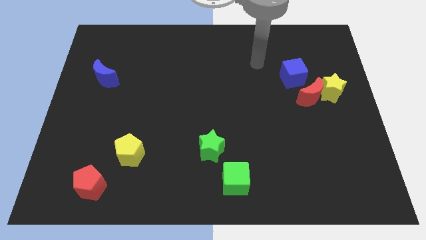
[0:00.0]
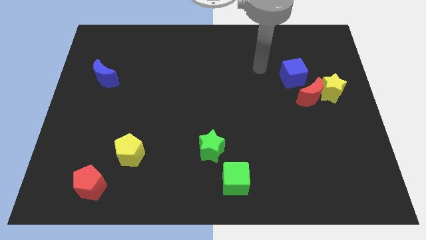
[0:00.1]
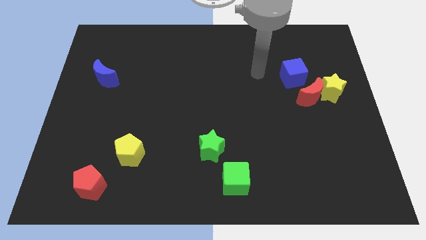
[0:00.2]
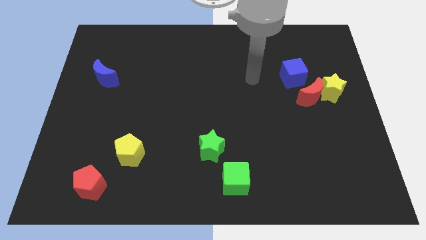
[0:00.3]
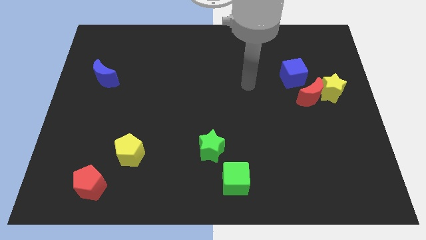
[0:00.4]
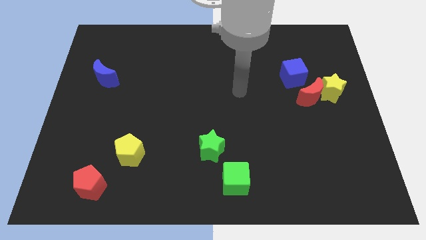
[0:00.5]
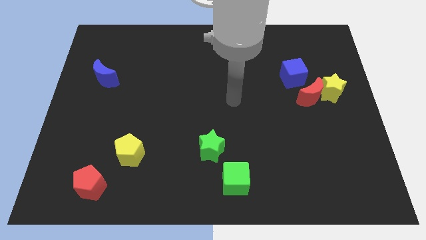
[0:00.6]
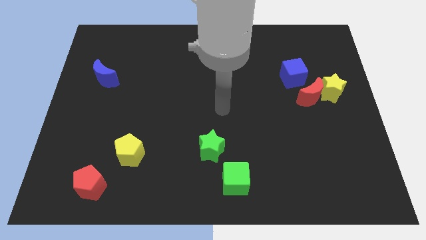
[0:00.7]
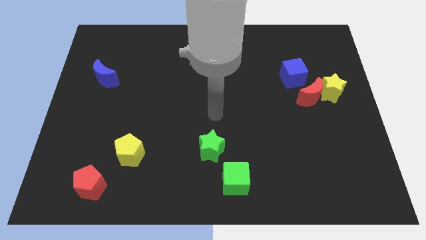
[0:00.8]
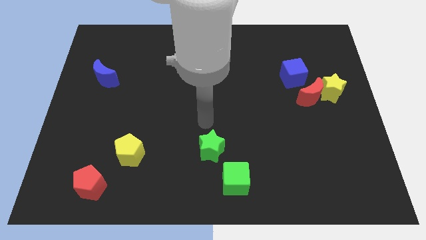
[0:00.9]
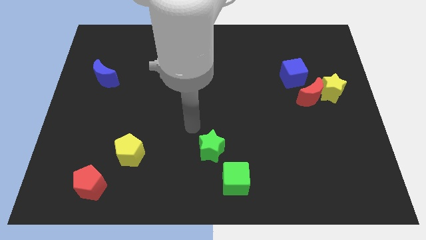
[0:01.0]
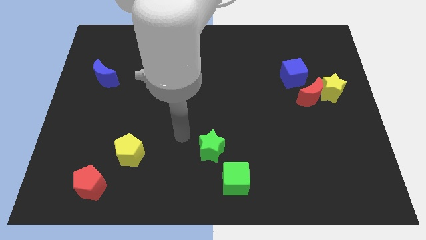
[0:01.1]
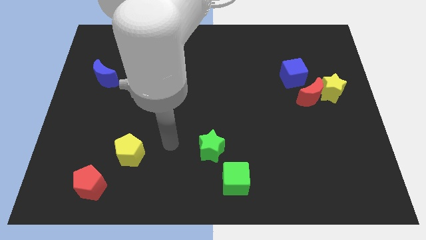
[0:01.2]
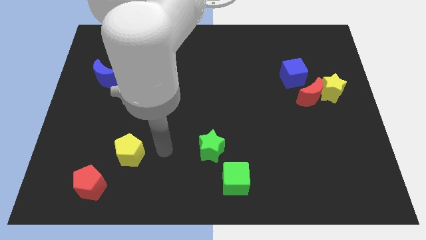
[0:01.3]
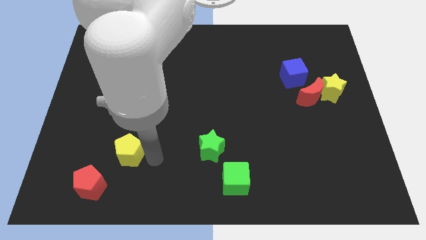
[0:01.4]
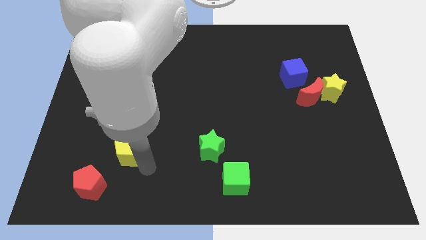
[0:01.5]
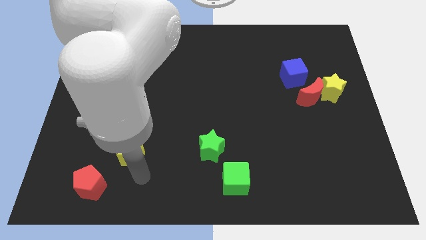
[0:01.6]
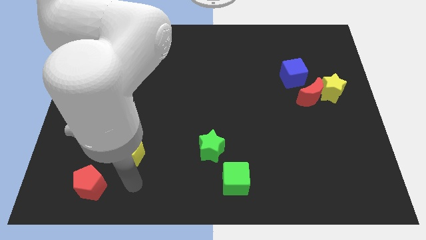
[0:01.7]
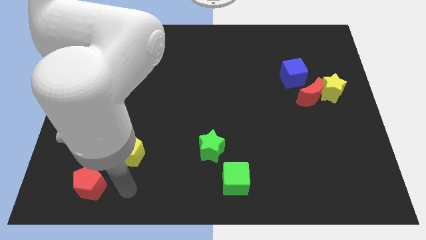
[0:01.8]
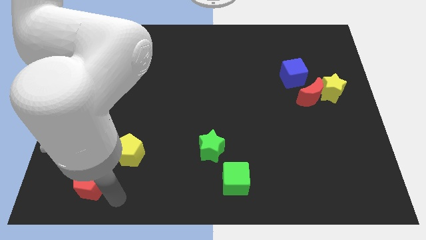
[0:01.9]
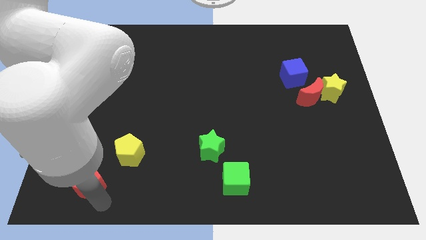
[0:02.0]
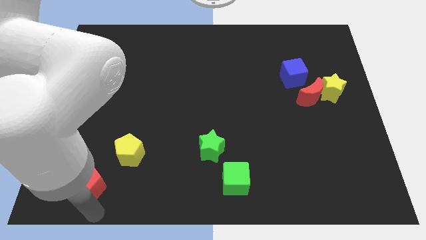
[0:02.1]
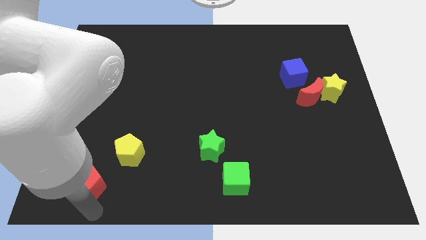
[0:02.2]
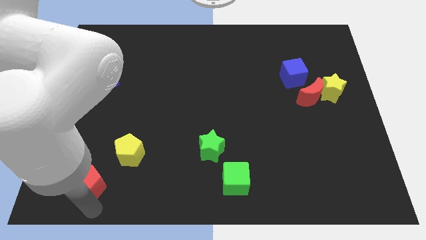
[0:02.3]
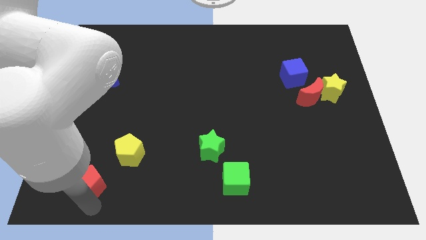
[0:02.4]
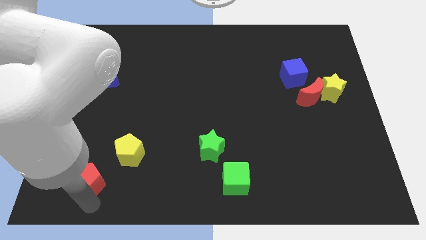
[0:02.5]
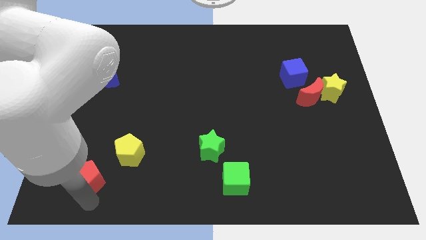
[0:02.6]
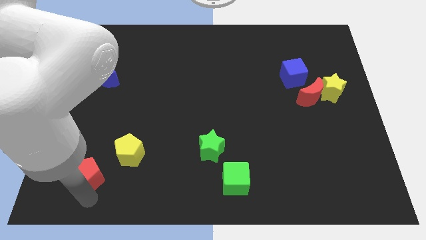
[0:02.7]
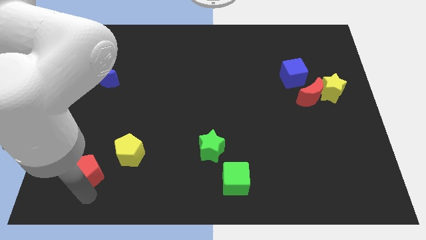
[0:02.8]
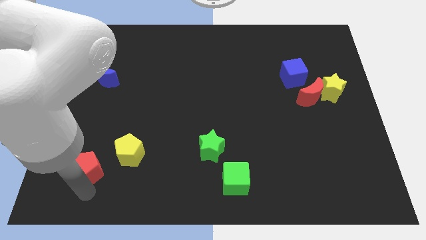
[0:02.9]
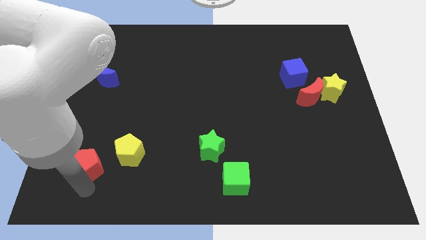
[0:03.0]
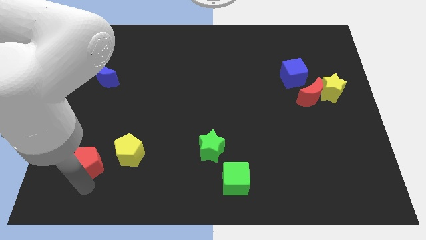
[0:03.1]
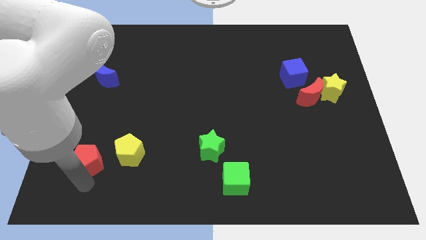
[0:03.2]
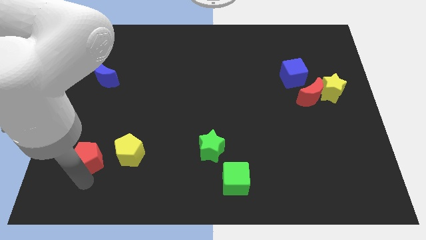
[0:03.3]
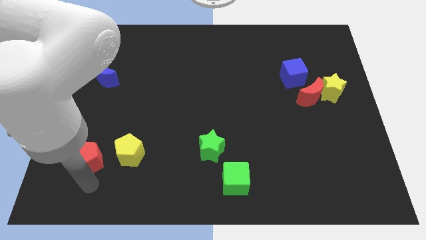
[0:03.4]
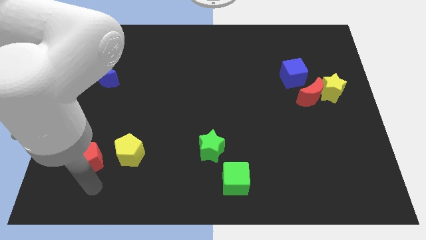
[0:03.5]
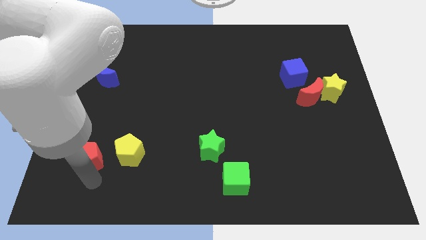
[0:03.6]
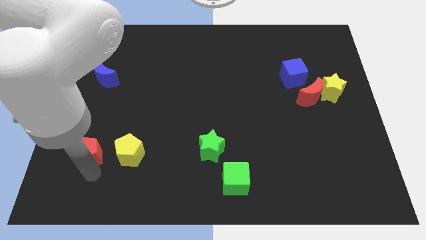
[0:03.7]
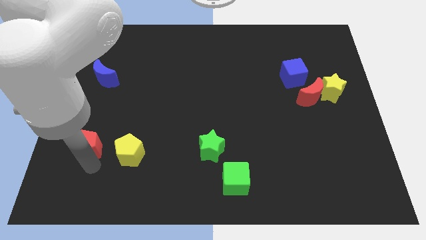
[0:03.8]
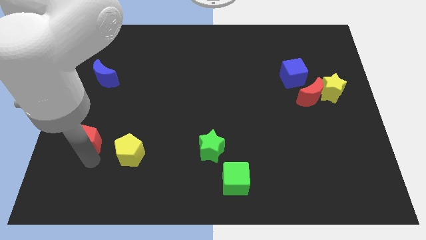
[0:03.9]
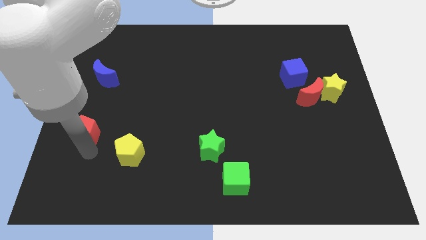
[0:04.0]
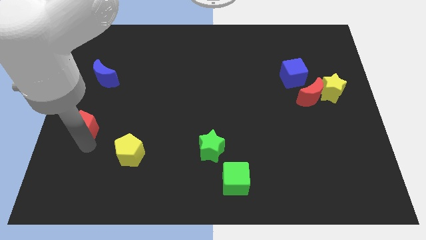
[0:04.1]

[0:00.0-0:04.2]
move the red pentagon to the bottom of the blue moon

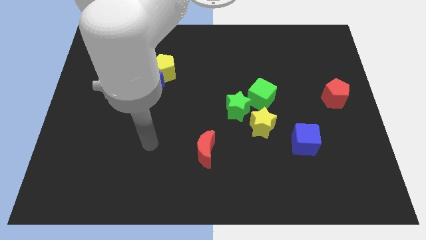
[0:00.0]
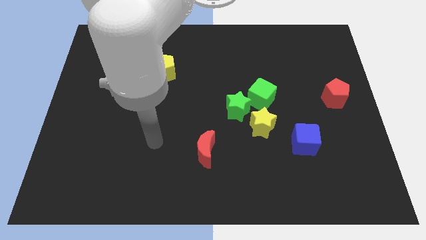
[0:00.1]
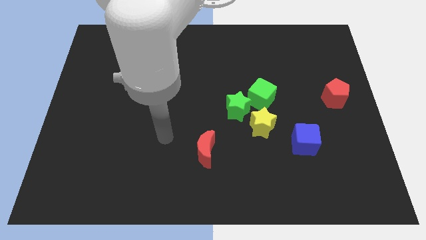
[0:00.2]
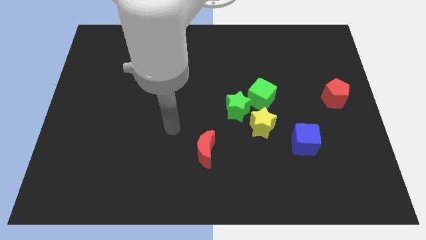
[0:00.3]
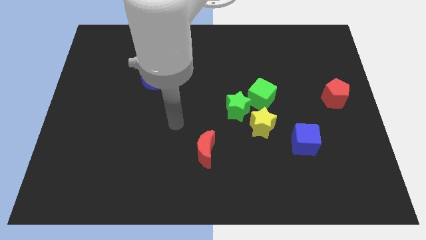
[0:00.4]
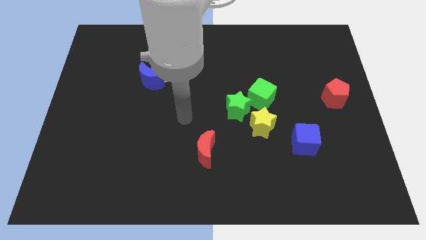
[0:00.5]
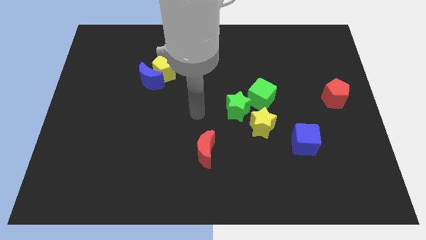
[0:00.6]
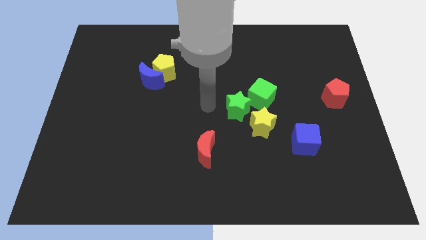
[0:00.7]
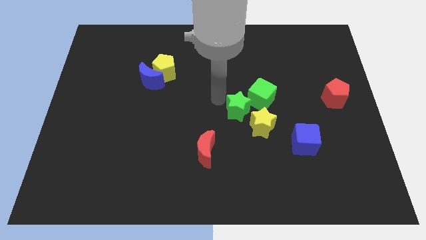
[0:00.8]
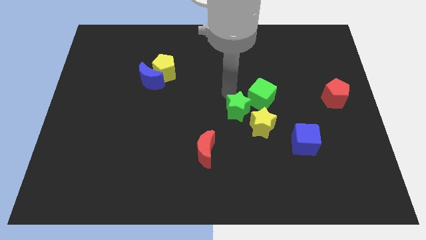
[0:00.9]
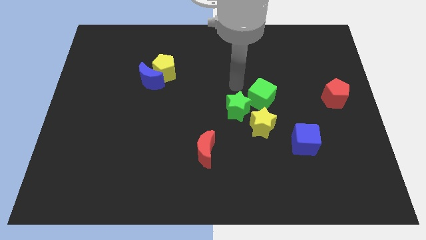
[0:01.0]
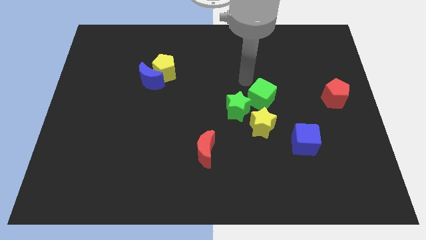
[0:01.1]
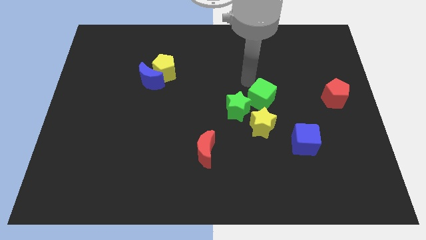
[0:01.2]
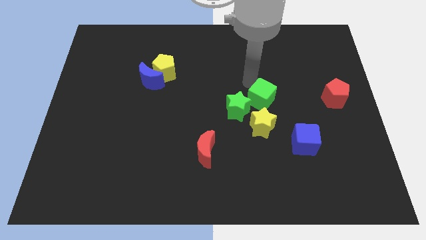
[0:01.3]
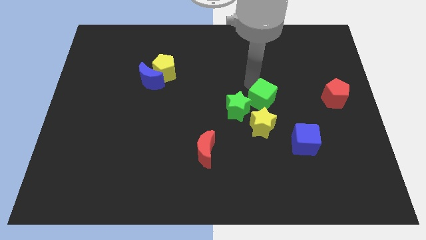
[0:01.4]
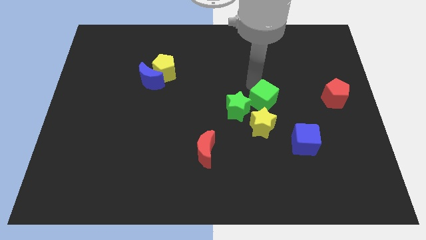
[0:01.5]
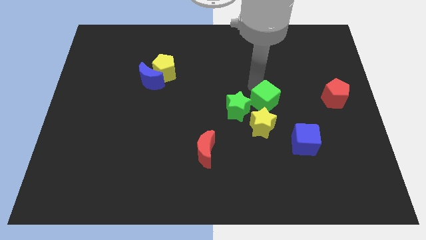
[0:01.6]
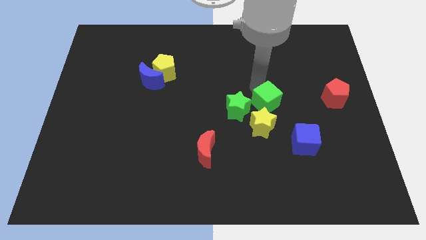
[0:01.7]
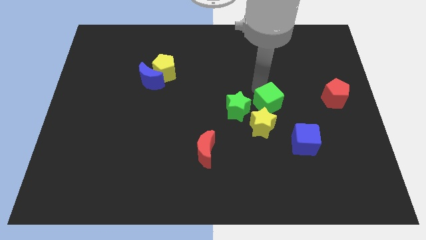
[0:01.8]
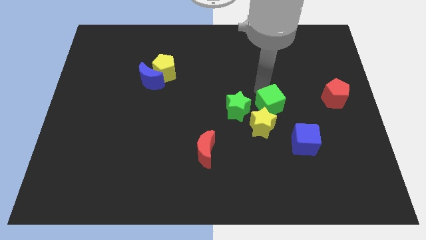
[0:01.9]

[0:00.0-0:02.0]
put the green cube diagonally up and to the left of the blue cube

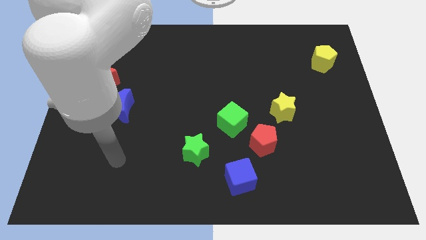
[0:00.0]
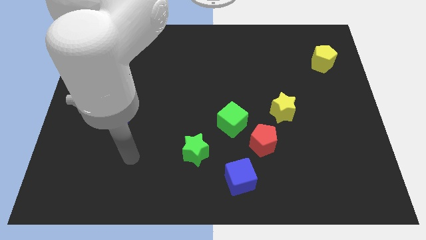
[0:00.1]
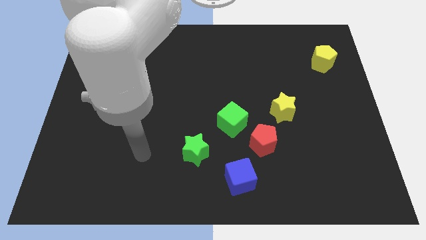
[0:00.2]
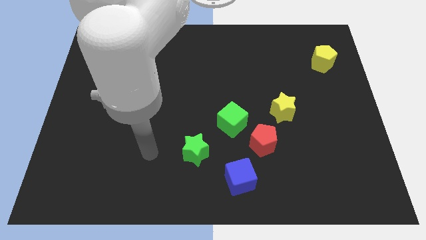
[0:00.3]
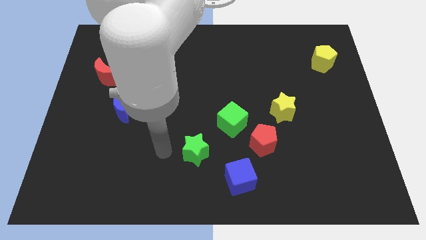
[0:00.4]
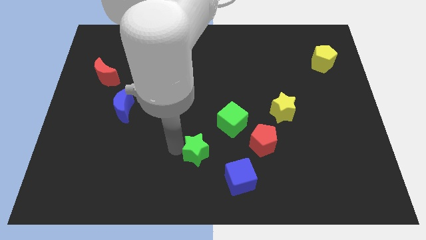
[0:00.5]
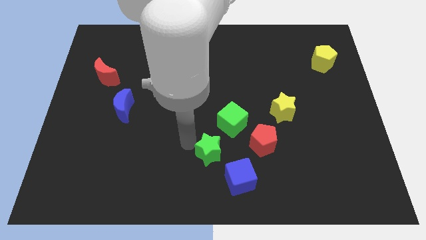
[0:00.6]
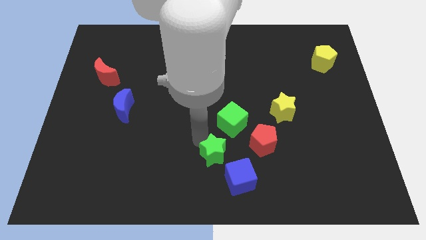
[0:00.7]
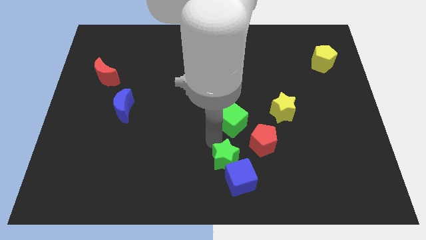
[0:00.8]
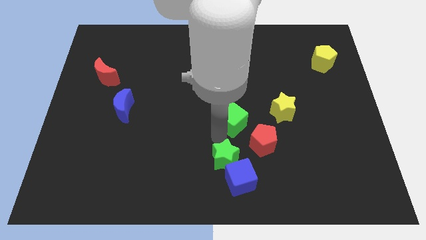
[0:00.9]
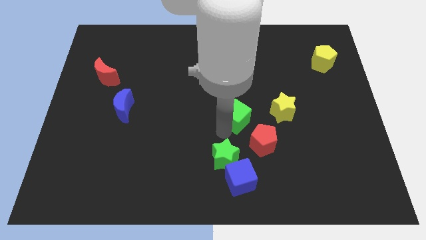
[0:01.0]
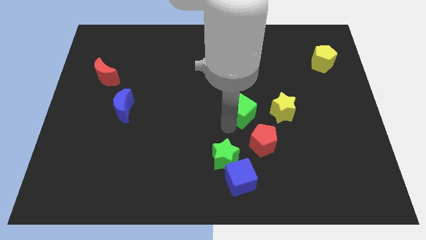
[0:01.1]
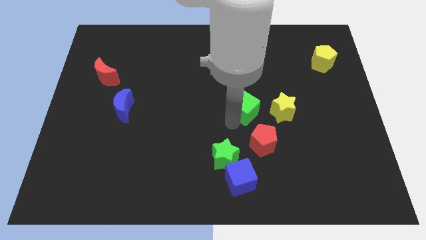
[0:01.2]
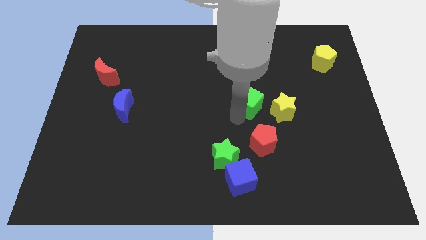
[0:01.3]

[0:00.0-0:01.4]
slide the green cube to the top left of the yellow star

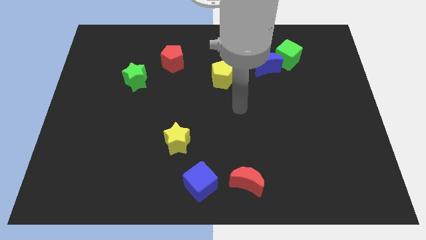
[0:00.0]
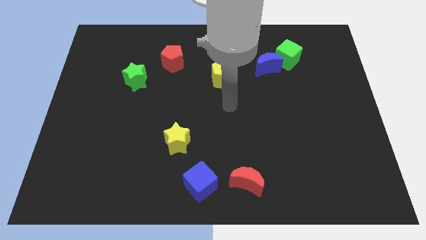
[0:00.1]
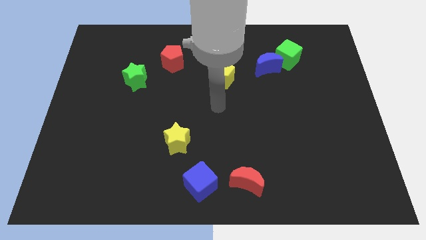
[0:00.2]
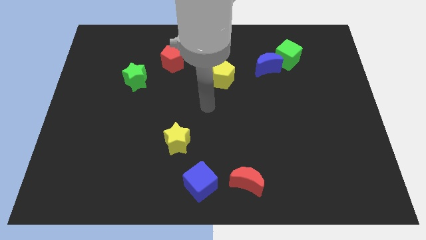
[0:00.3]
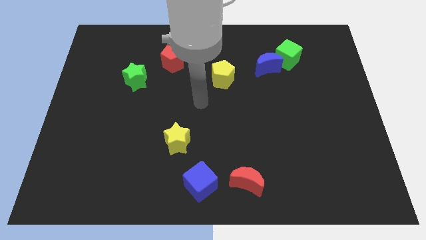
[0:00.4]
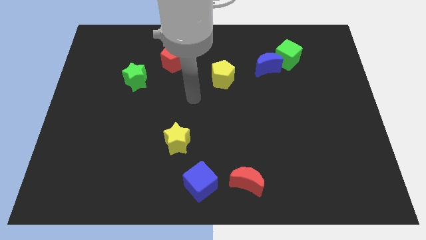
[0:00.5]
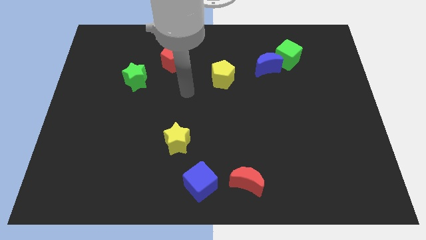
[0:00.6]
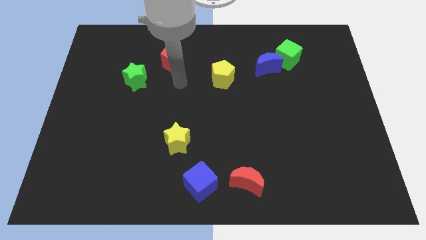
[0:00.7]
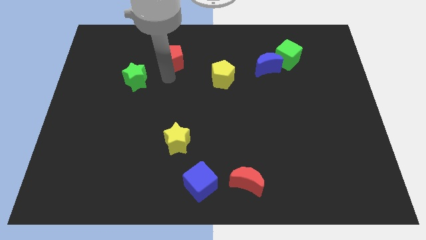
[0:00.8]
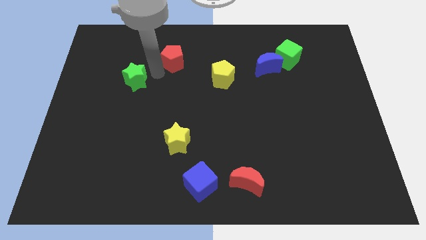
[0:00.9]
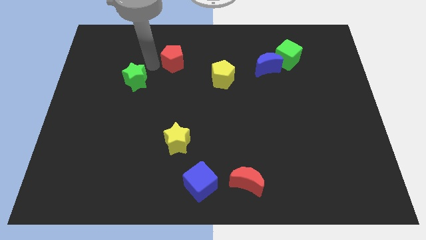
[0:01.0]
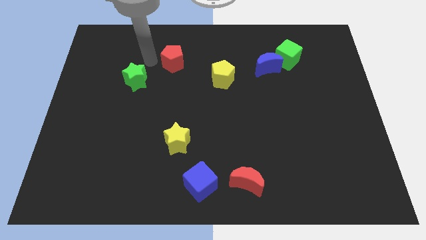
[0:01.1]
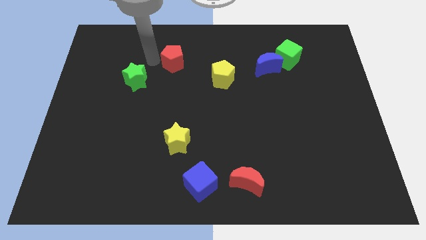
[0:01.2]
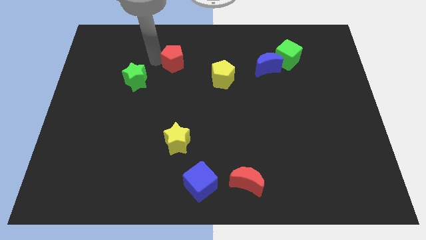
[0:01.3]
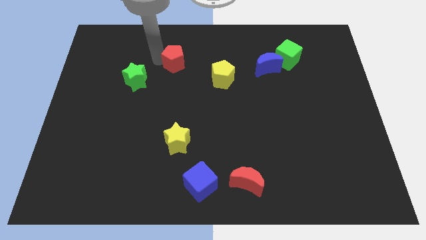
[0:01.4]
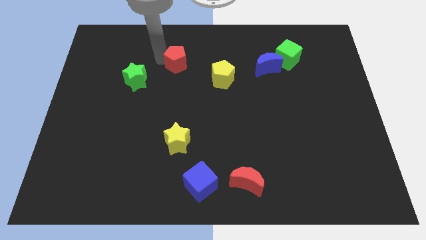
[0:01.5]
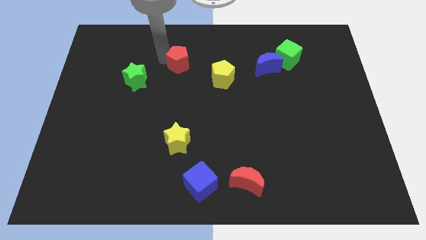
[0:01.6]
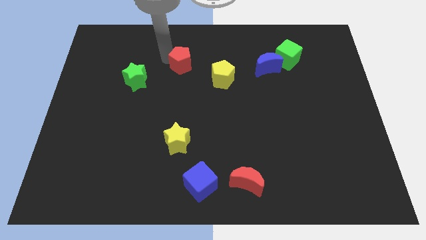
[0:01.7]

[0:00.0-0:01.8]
put the red pentagon to the top left of the yellow pentagon
